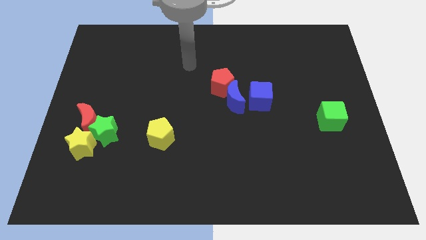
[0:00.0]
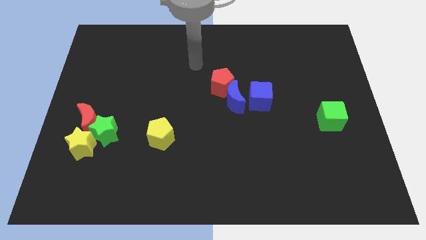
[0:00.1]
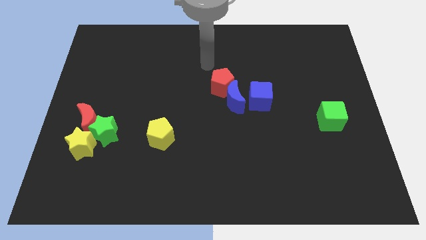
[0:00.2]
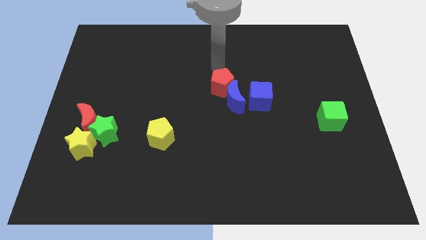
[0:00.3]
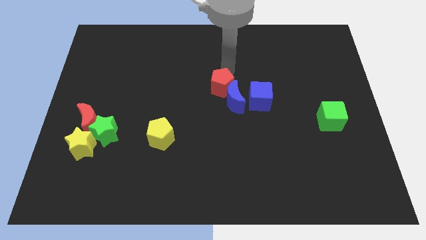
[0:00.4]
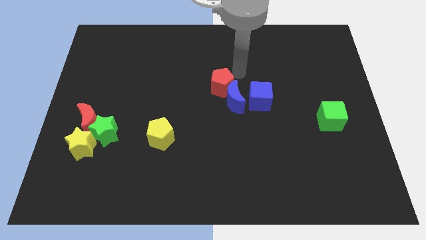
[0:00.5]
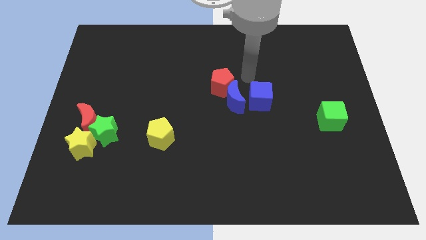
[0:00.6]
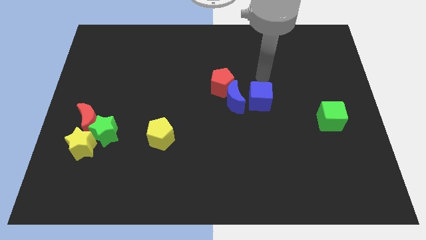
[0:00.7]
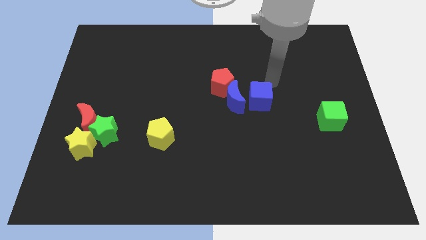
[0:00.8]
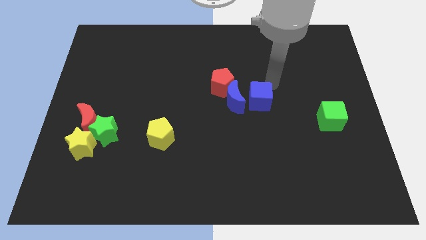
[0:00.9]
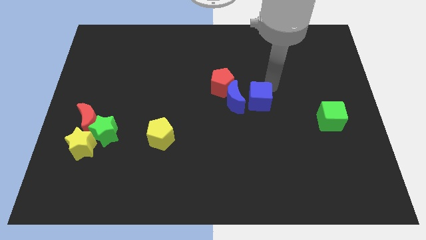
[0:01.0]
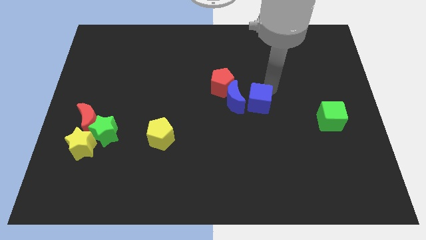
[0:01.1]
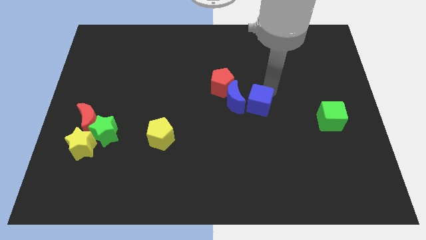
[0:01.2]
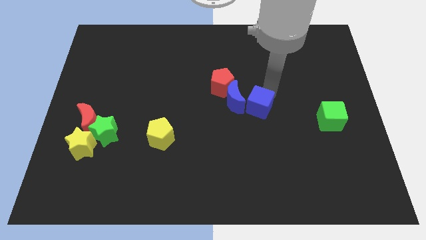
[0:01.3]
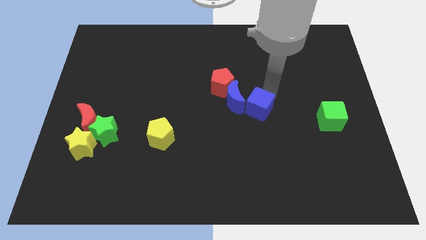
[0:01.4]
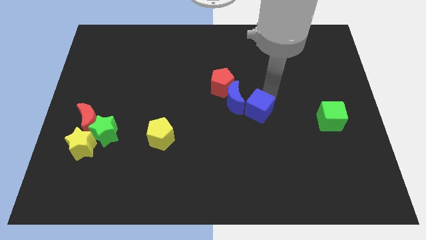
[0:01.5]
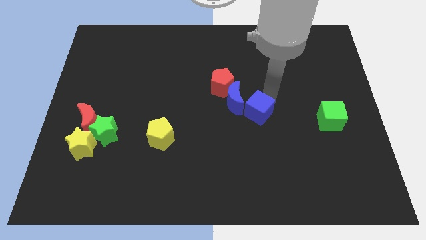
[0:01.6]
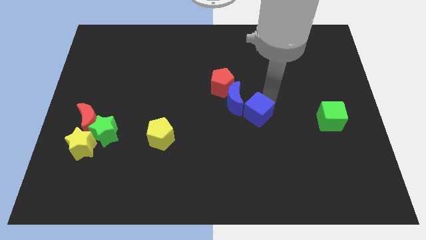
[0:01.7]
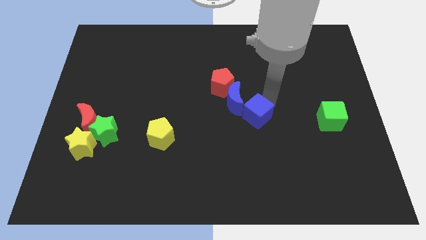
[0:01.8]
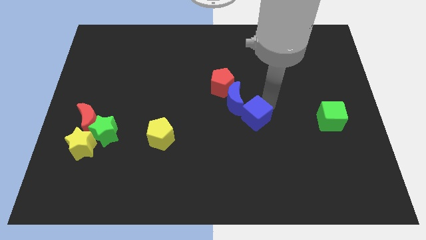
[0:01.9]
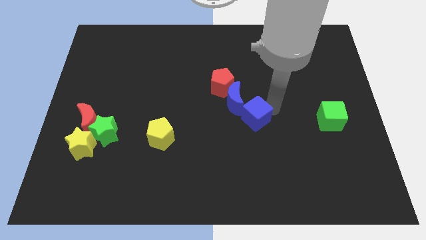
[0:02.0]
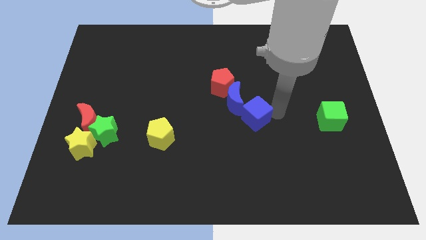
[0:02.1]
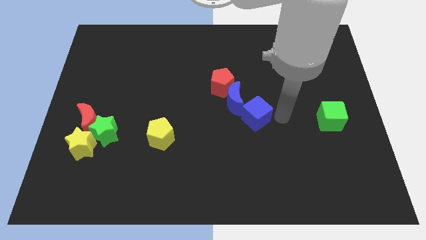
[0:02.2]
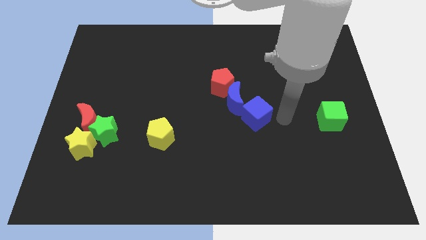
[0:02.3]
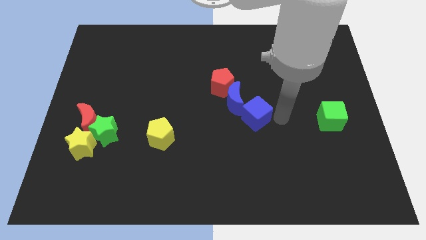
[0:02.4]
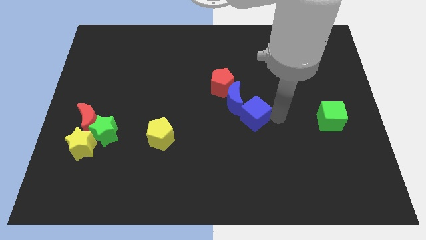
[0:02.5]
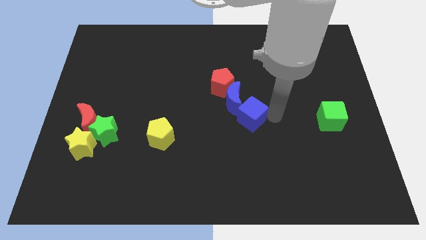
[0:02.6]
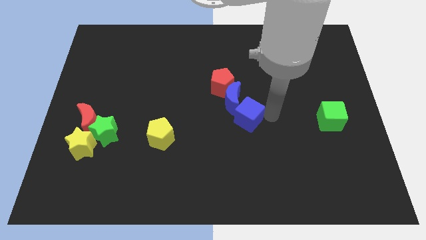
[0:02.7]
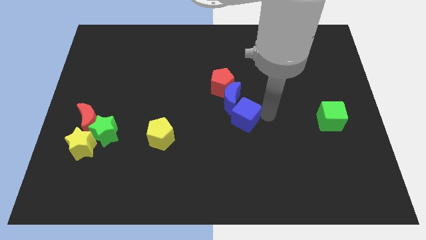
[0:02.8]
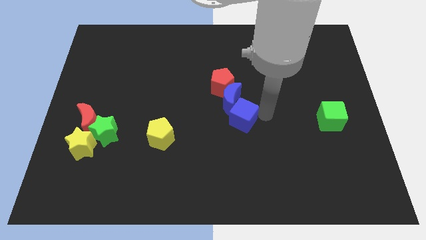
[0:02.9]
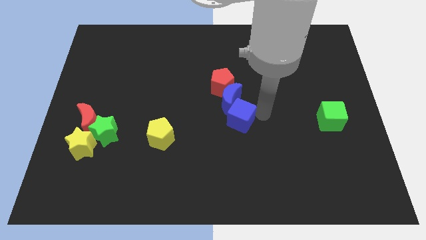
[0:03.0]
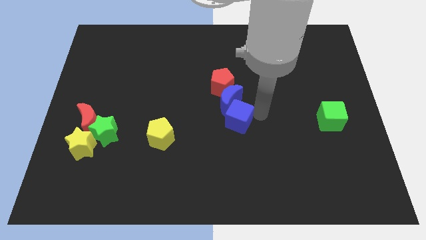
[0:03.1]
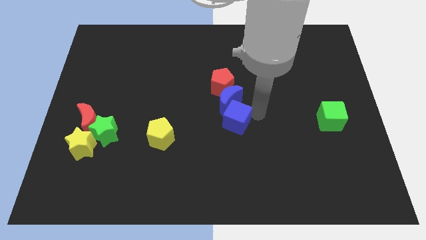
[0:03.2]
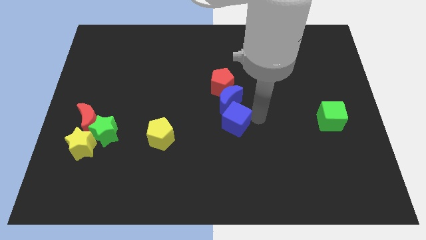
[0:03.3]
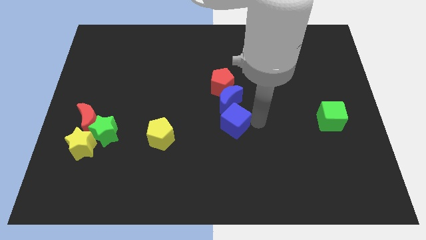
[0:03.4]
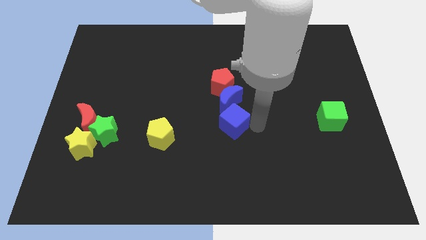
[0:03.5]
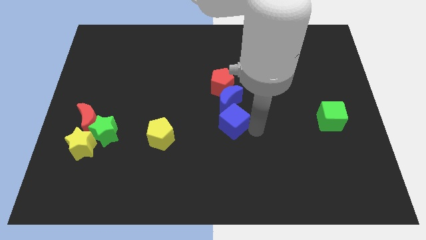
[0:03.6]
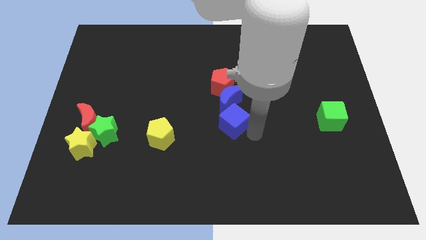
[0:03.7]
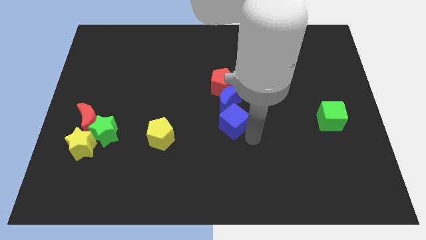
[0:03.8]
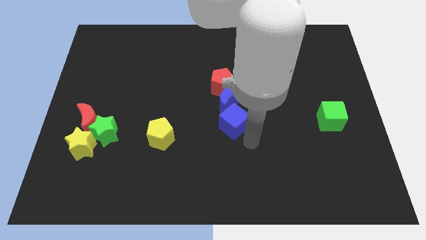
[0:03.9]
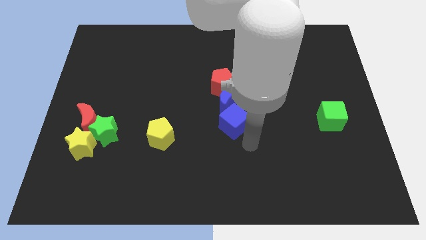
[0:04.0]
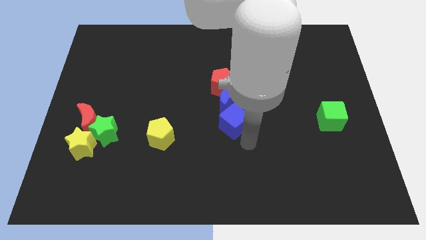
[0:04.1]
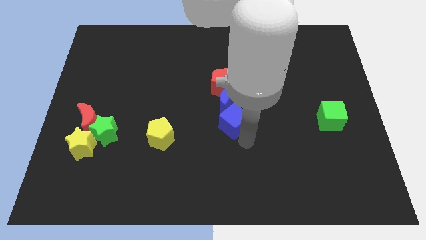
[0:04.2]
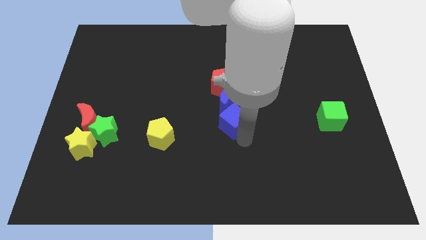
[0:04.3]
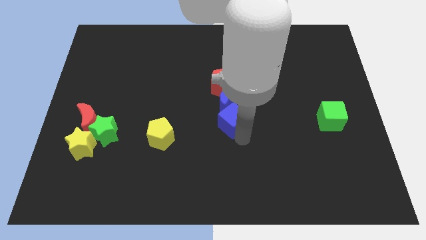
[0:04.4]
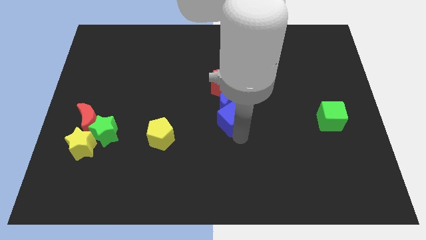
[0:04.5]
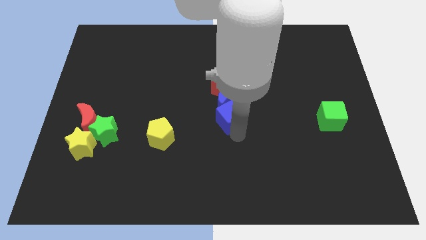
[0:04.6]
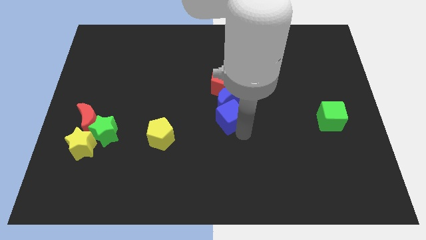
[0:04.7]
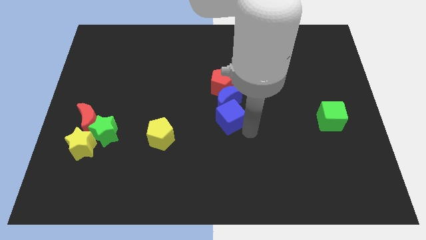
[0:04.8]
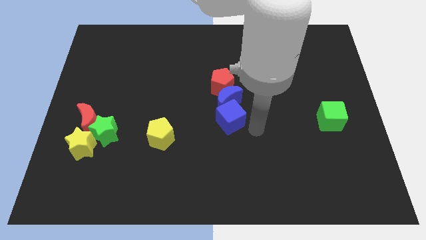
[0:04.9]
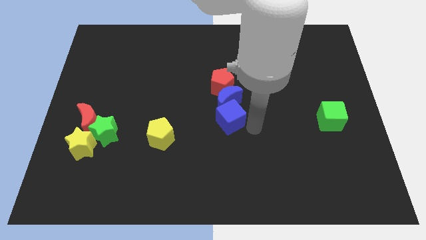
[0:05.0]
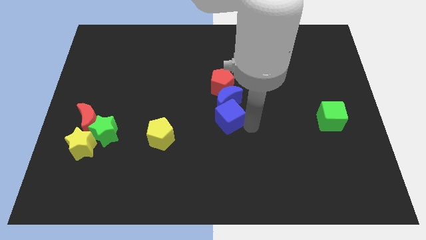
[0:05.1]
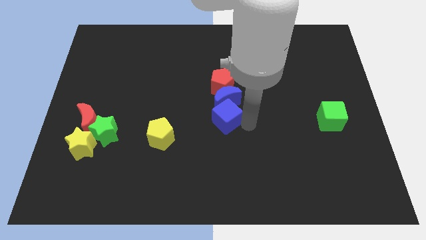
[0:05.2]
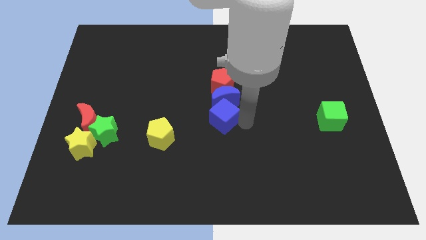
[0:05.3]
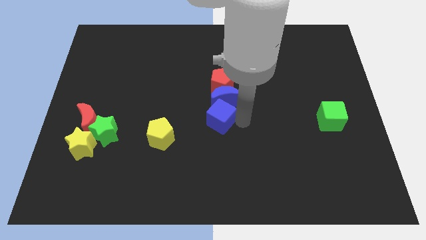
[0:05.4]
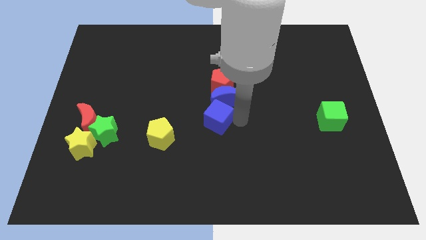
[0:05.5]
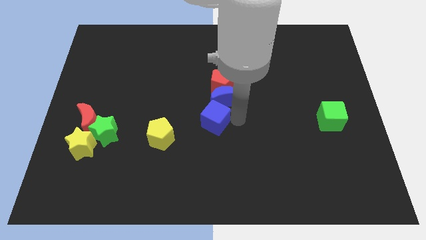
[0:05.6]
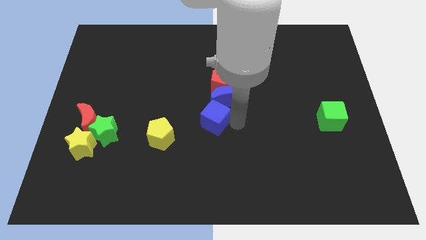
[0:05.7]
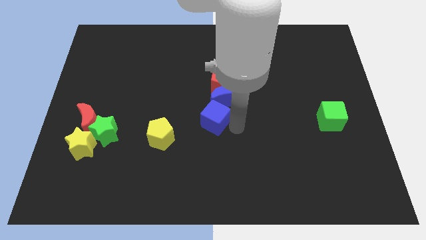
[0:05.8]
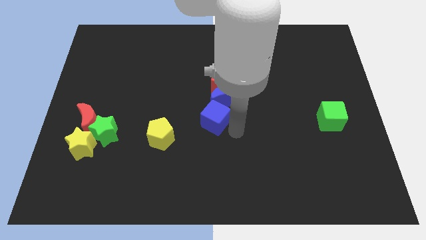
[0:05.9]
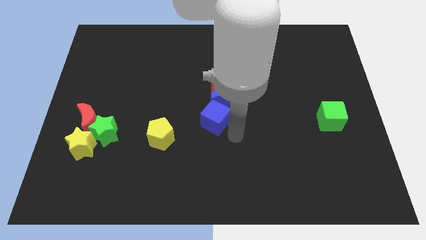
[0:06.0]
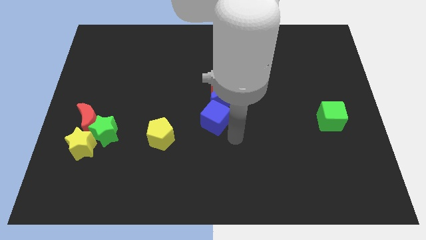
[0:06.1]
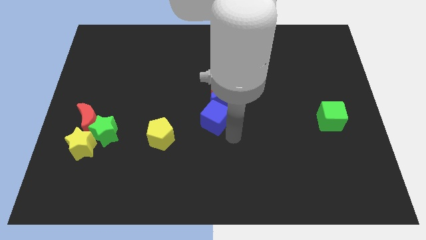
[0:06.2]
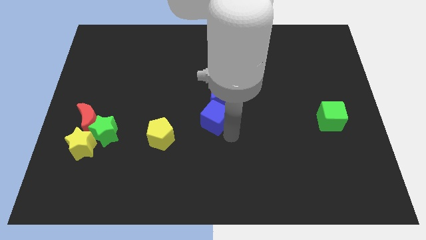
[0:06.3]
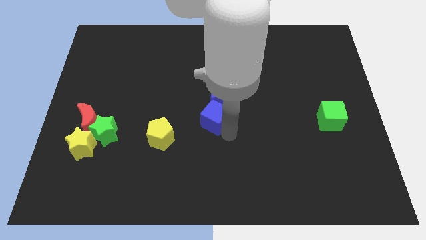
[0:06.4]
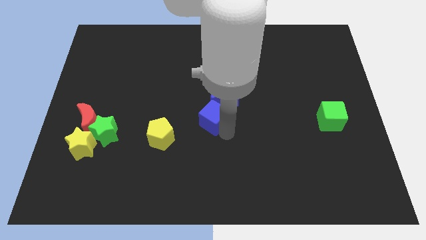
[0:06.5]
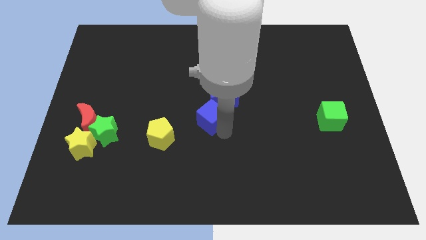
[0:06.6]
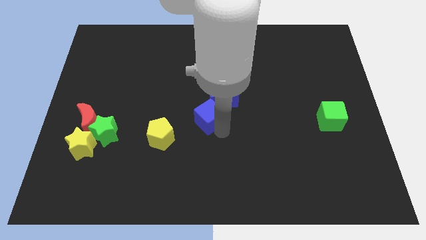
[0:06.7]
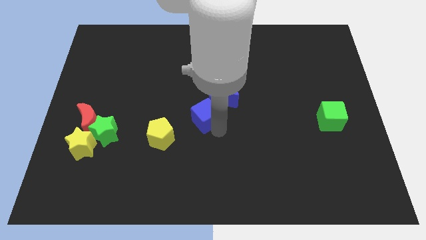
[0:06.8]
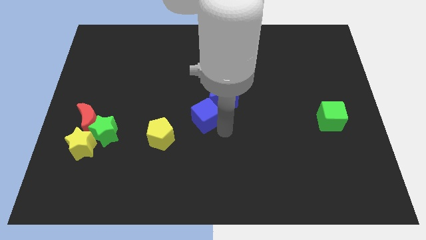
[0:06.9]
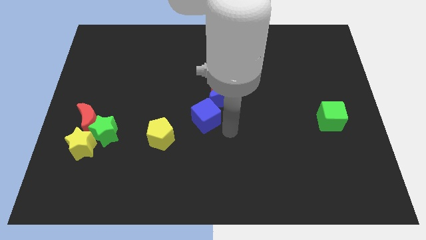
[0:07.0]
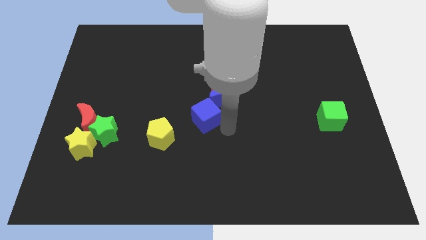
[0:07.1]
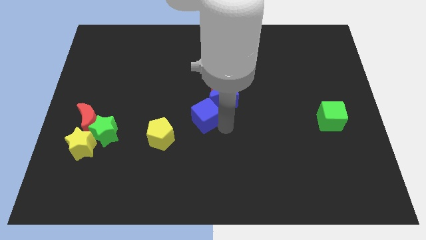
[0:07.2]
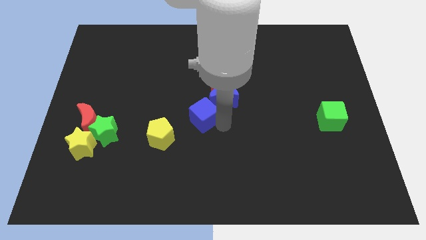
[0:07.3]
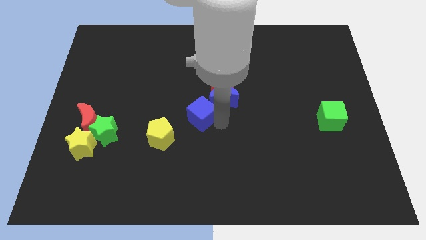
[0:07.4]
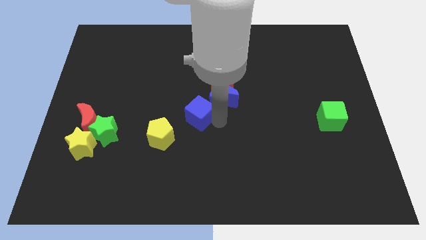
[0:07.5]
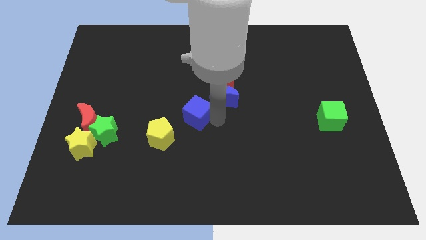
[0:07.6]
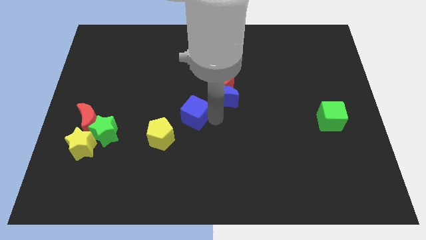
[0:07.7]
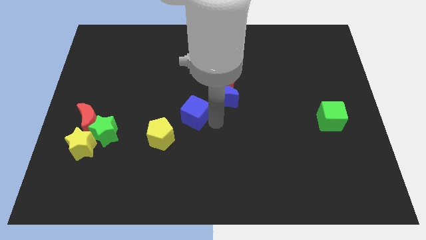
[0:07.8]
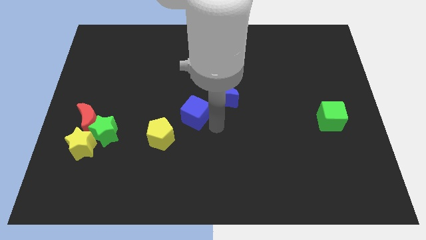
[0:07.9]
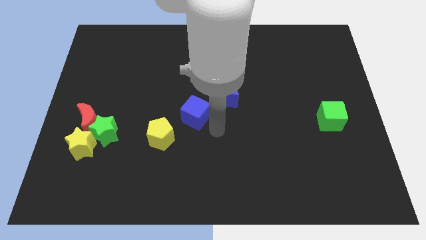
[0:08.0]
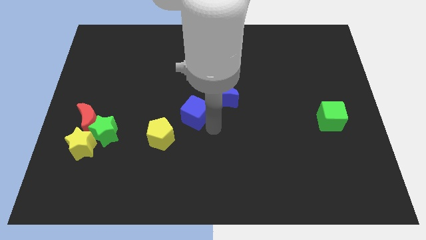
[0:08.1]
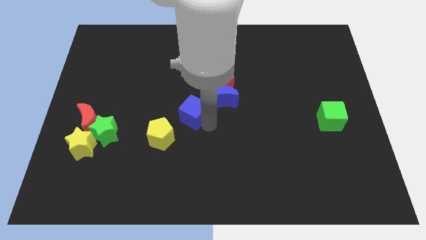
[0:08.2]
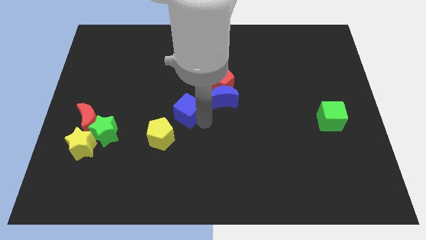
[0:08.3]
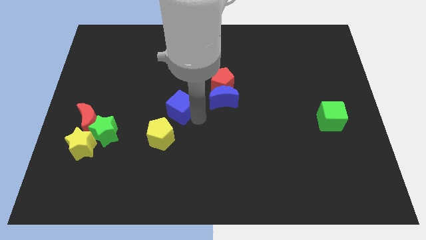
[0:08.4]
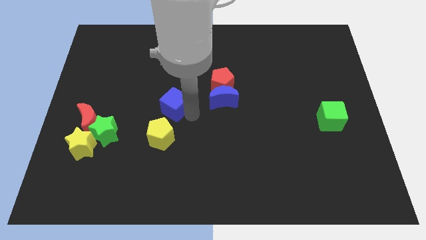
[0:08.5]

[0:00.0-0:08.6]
push the blue cube to the left

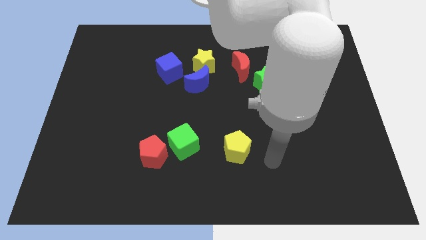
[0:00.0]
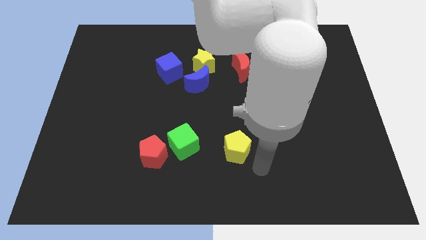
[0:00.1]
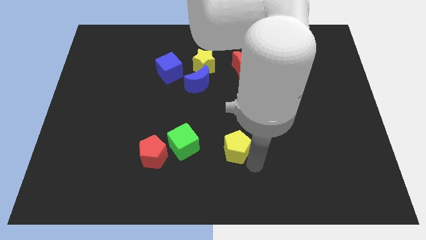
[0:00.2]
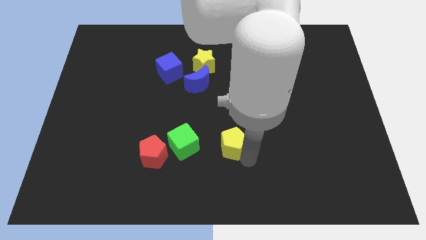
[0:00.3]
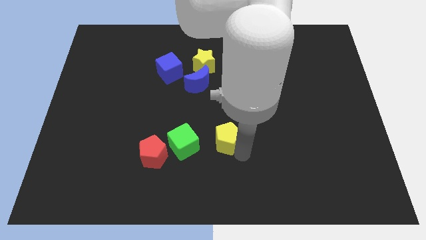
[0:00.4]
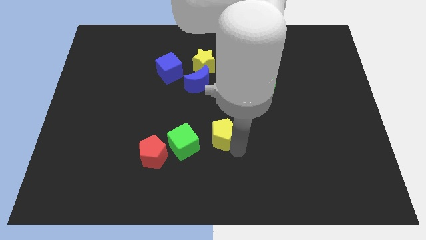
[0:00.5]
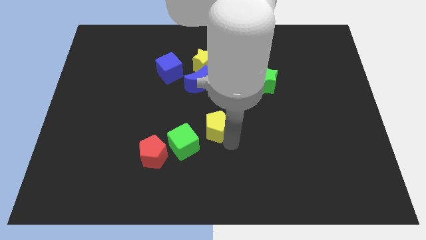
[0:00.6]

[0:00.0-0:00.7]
slide the yellow pentagon upwards and then to the left slightly
